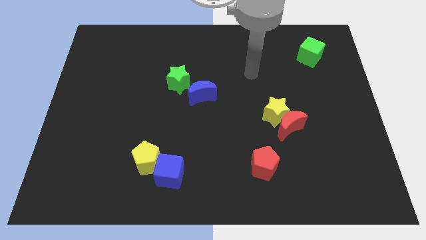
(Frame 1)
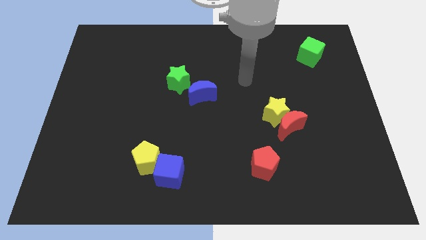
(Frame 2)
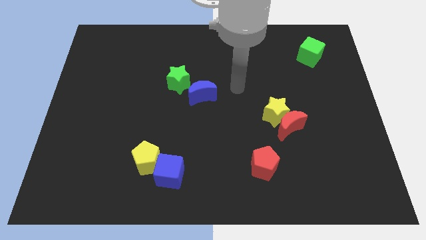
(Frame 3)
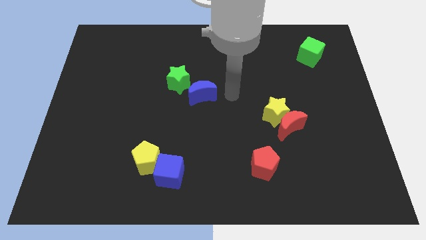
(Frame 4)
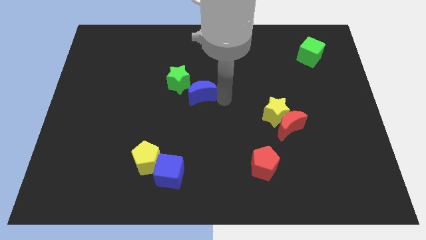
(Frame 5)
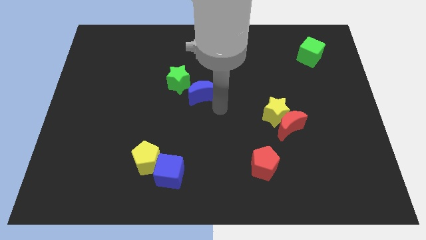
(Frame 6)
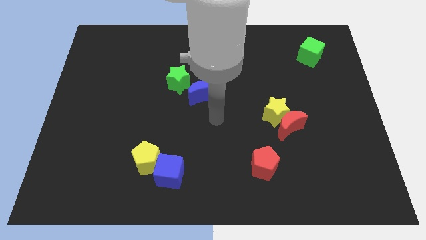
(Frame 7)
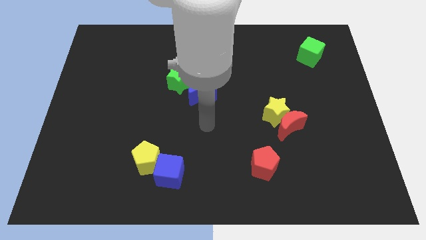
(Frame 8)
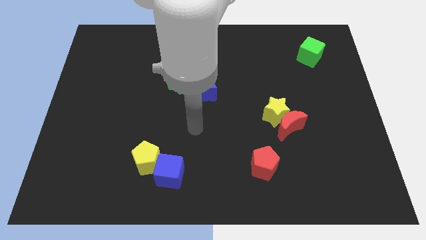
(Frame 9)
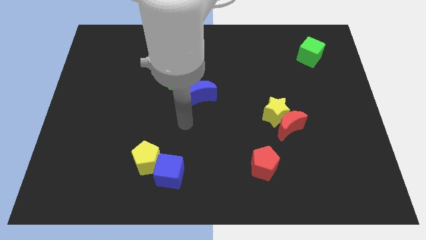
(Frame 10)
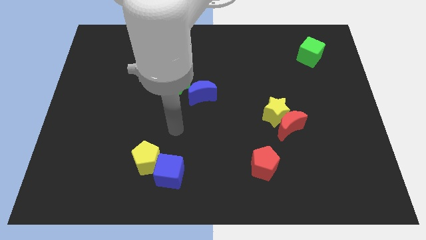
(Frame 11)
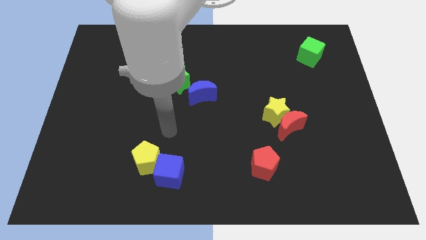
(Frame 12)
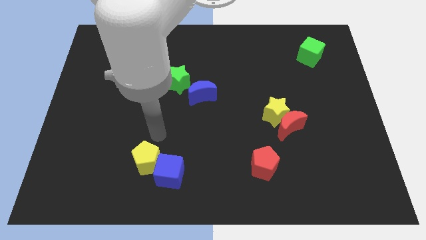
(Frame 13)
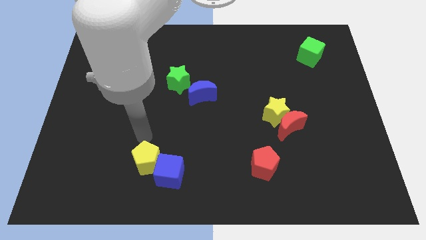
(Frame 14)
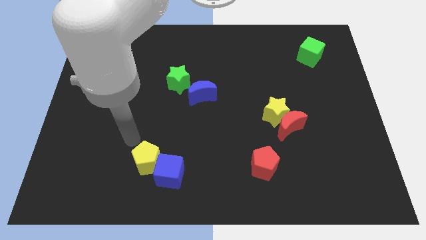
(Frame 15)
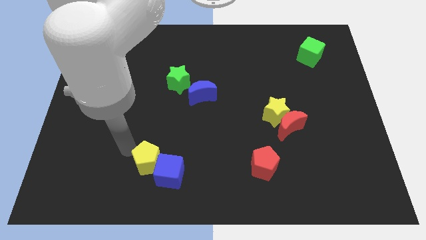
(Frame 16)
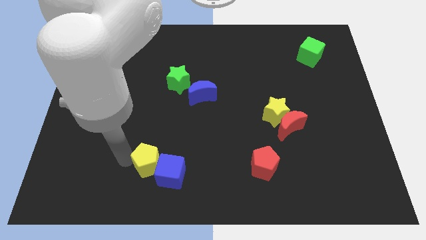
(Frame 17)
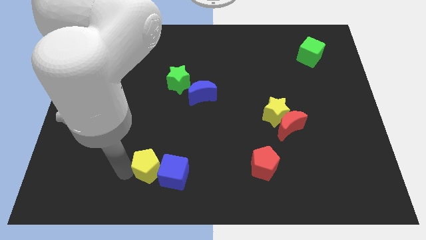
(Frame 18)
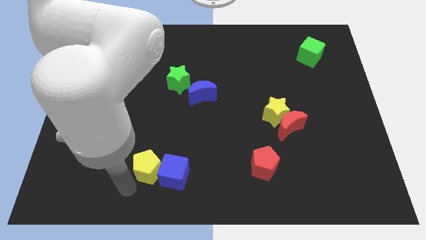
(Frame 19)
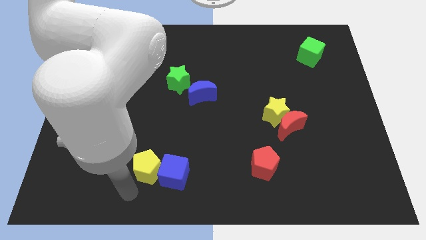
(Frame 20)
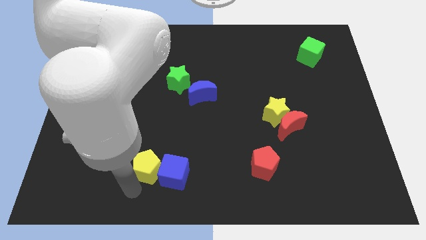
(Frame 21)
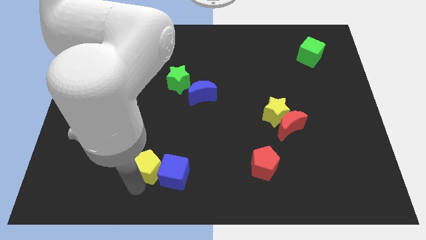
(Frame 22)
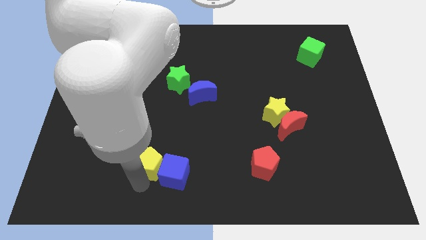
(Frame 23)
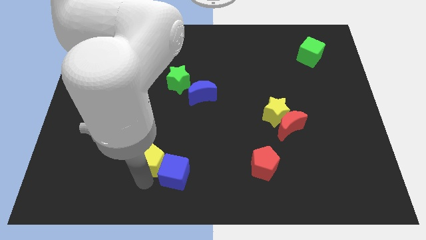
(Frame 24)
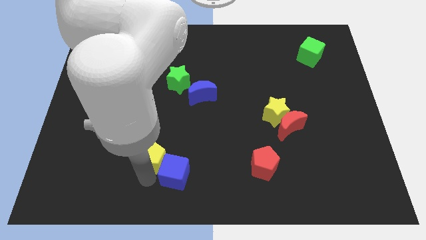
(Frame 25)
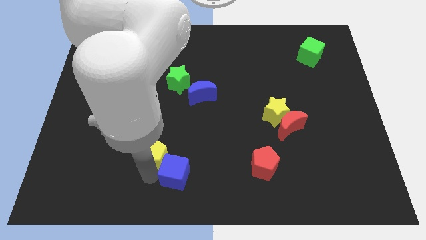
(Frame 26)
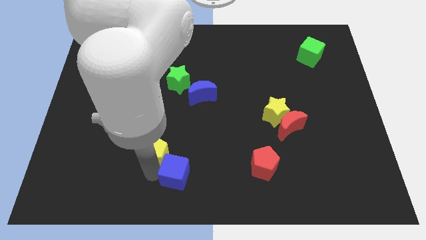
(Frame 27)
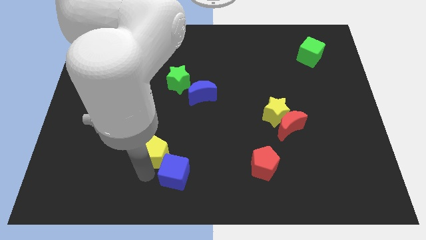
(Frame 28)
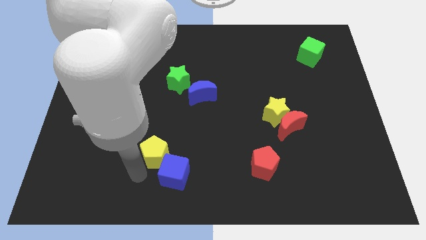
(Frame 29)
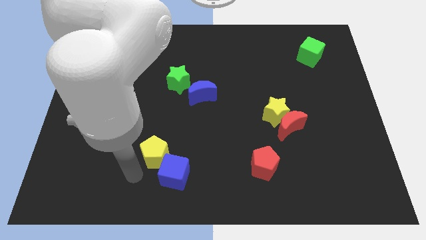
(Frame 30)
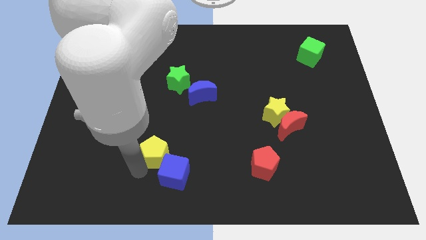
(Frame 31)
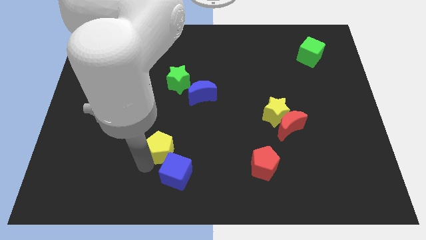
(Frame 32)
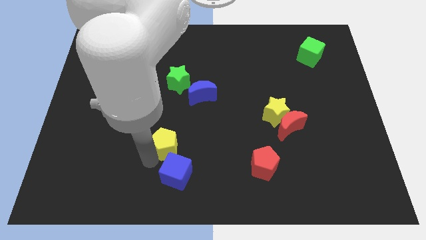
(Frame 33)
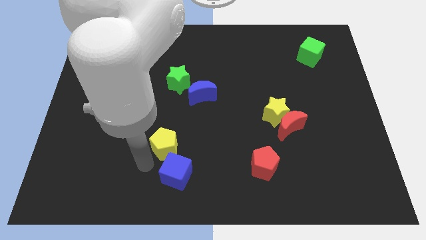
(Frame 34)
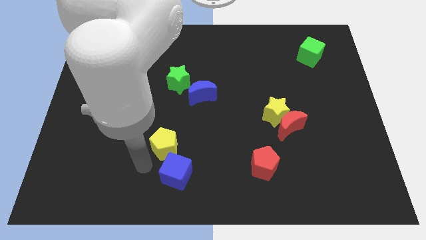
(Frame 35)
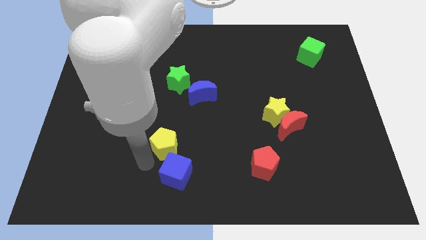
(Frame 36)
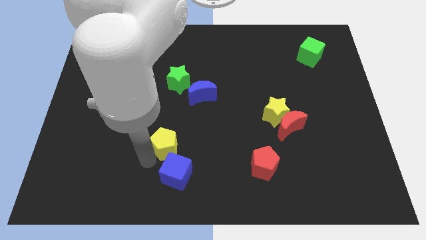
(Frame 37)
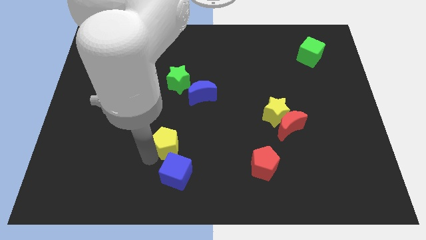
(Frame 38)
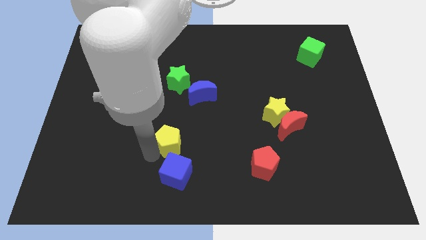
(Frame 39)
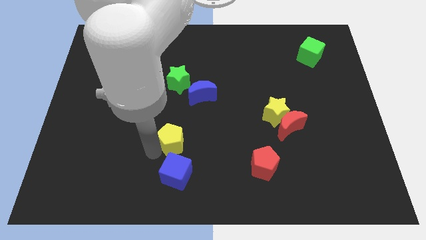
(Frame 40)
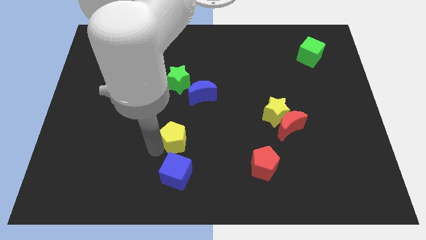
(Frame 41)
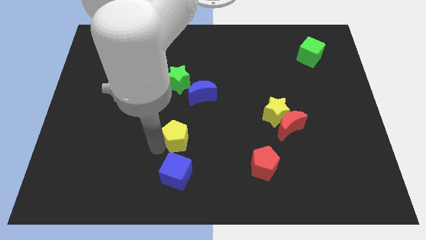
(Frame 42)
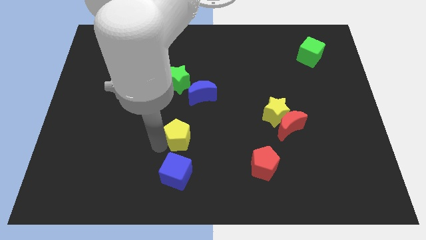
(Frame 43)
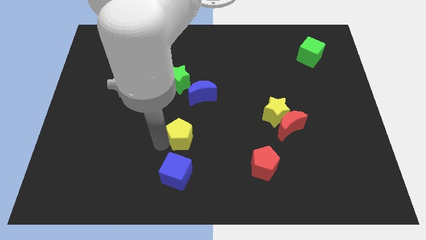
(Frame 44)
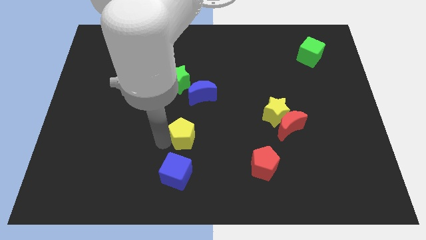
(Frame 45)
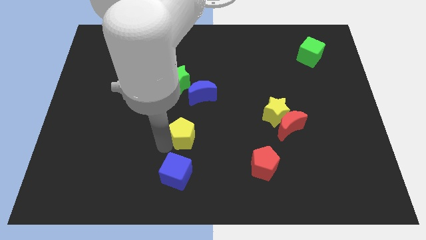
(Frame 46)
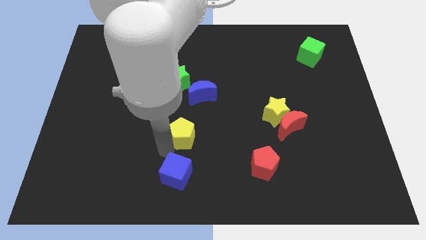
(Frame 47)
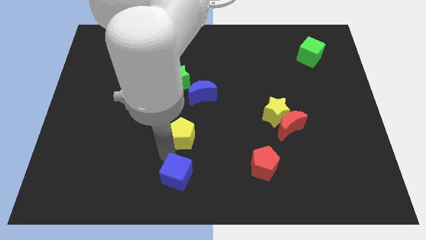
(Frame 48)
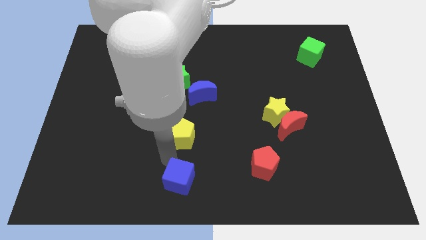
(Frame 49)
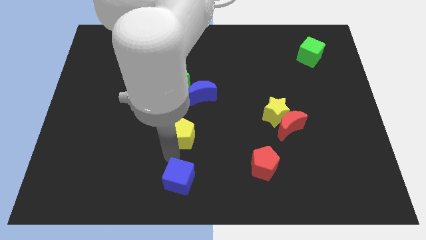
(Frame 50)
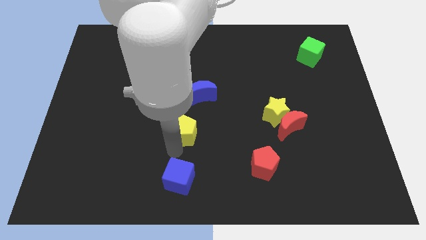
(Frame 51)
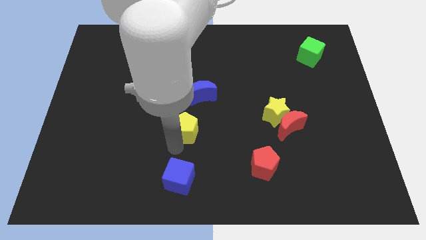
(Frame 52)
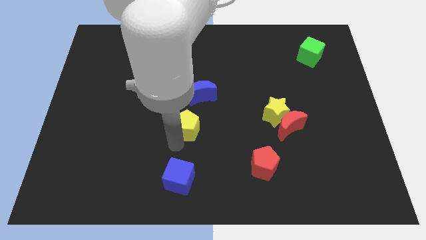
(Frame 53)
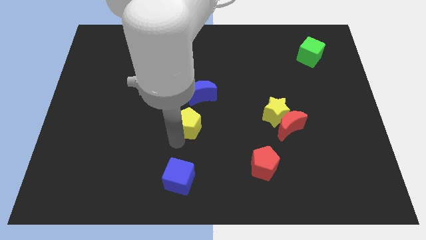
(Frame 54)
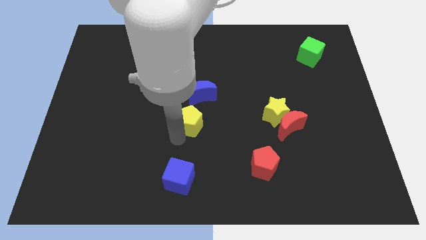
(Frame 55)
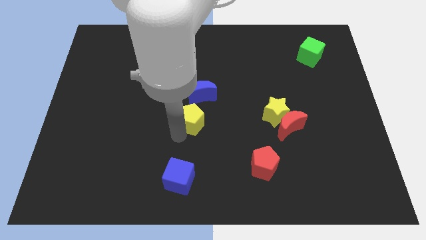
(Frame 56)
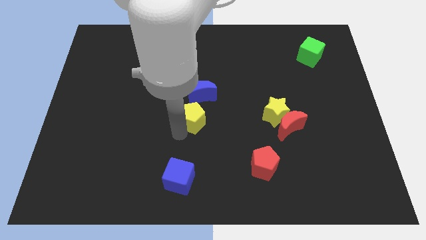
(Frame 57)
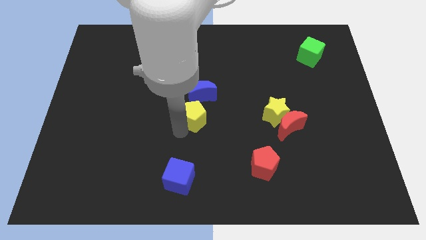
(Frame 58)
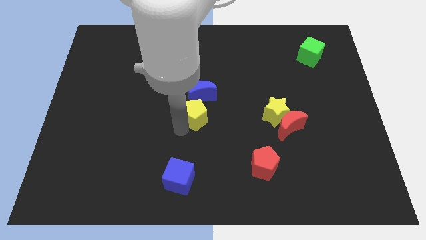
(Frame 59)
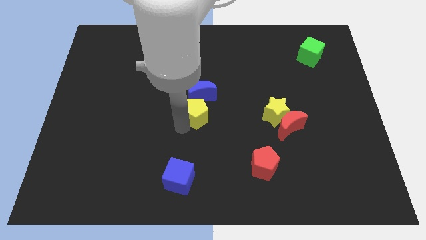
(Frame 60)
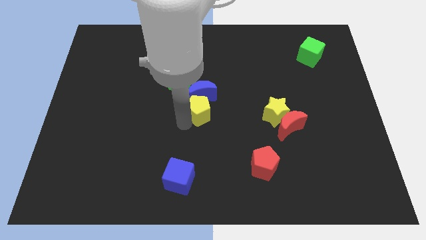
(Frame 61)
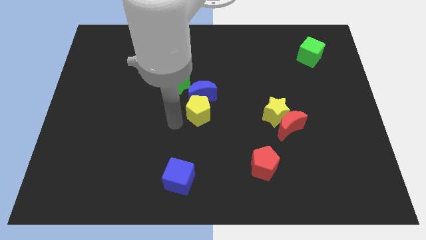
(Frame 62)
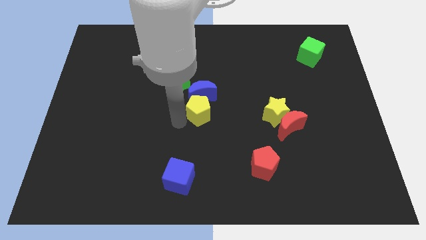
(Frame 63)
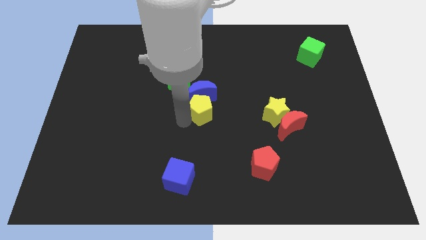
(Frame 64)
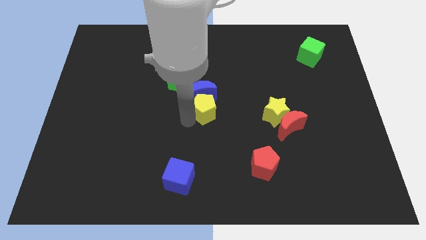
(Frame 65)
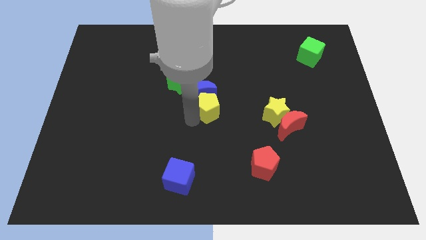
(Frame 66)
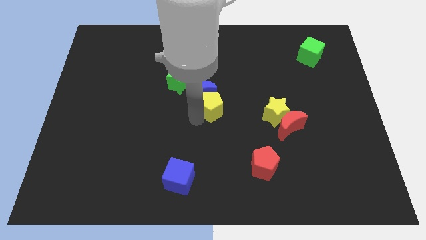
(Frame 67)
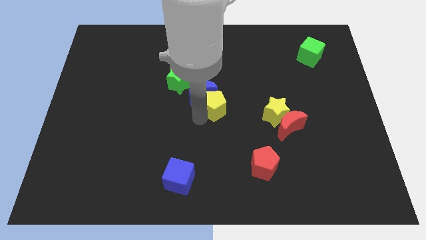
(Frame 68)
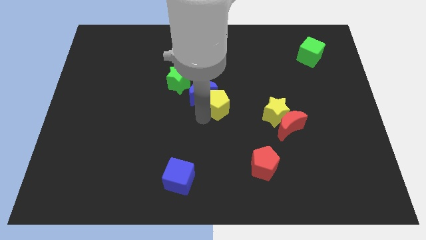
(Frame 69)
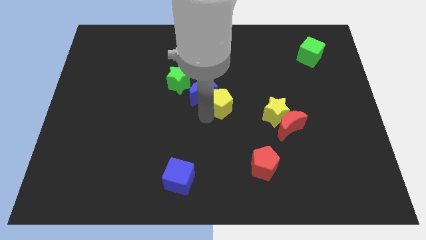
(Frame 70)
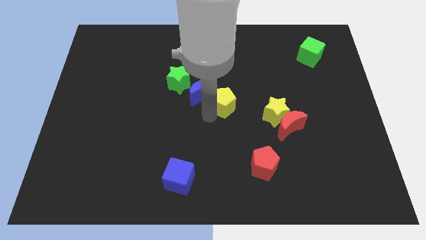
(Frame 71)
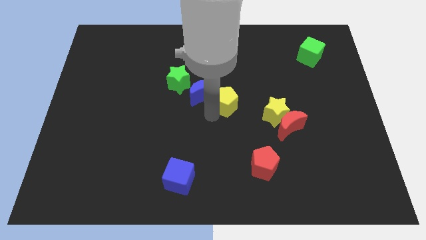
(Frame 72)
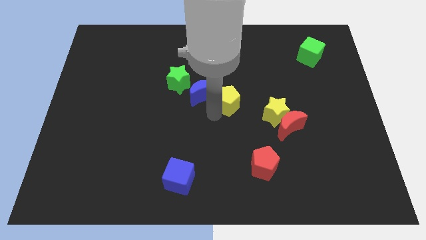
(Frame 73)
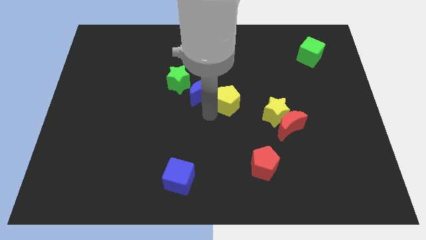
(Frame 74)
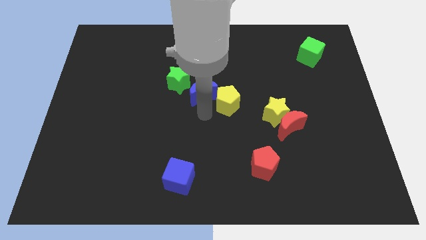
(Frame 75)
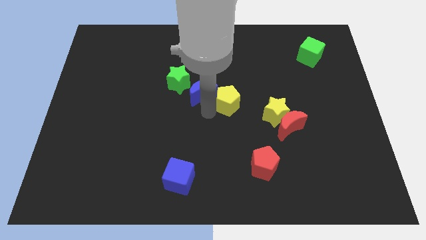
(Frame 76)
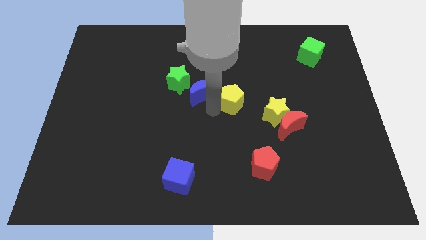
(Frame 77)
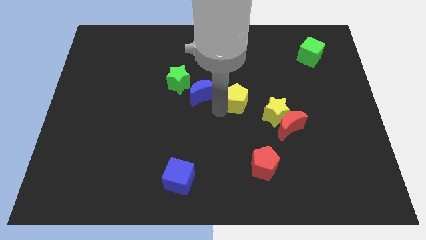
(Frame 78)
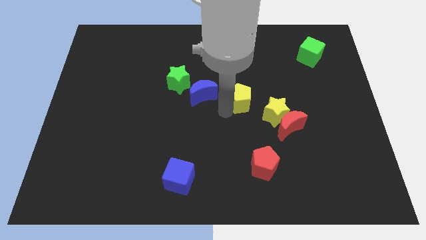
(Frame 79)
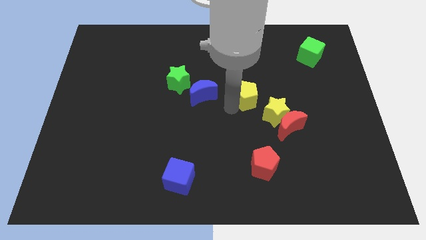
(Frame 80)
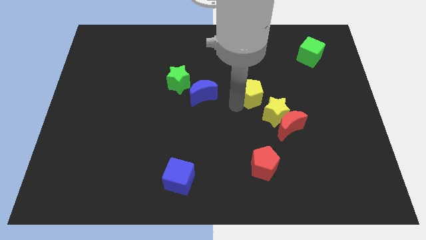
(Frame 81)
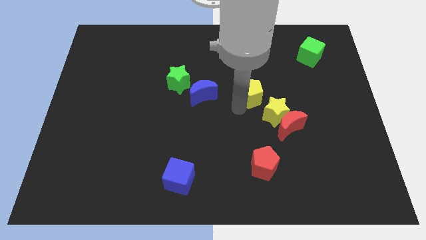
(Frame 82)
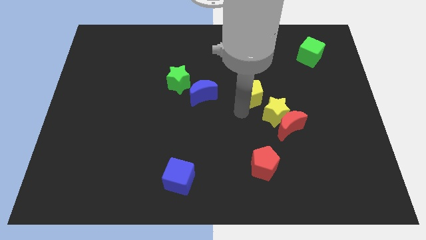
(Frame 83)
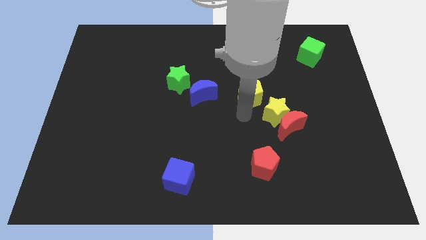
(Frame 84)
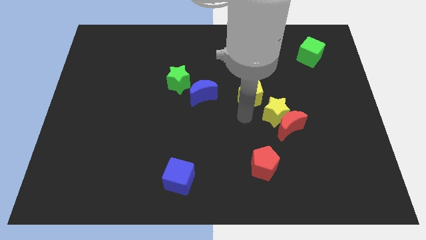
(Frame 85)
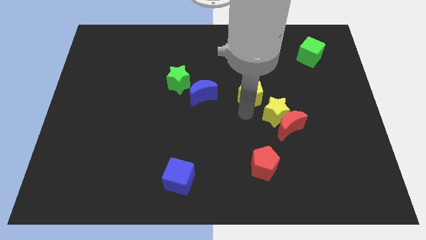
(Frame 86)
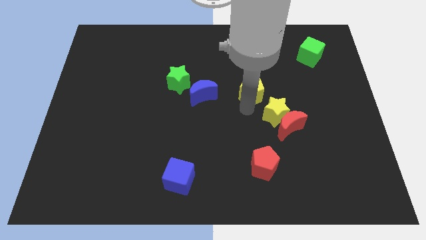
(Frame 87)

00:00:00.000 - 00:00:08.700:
move the yellow pentagon to the top side of the yellow star
